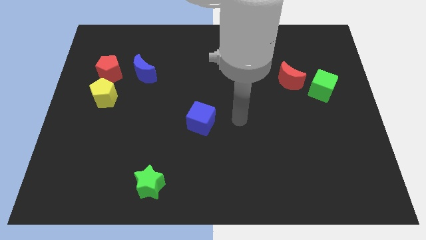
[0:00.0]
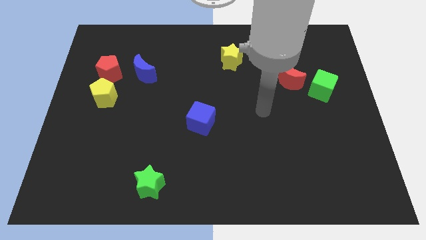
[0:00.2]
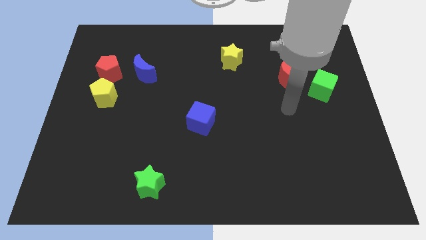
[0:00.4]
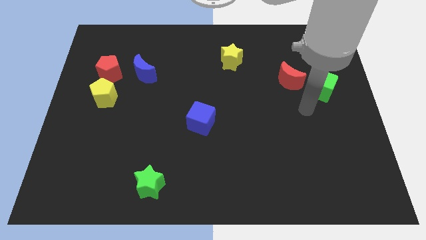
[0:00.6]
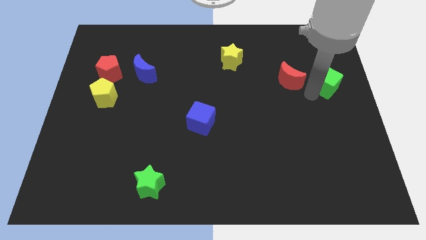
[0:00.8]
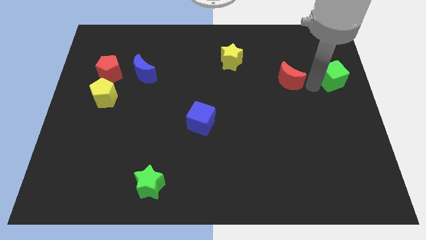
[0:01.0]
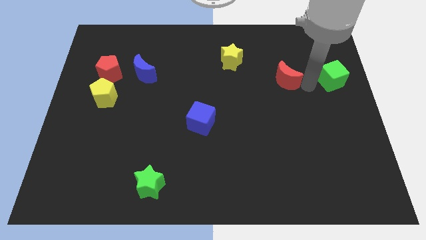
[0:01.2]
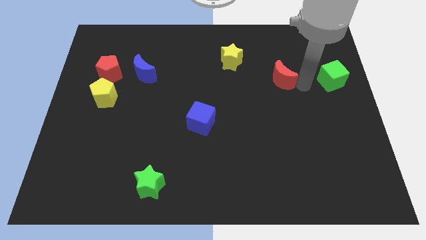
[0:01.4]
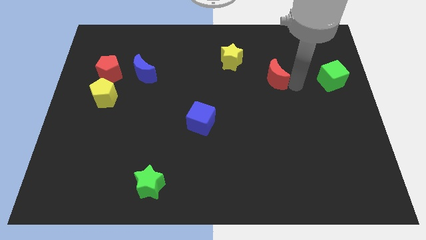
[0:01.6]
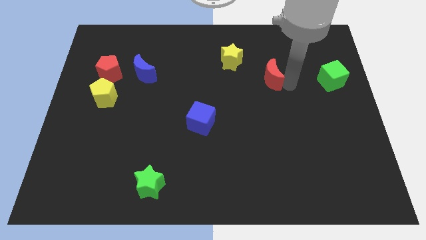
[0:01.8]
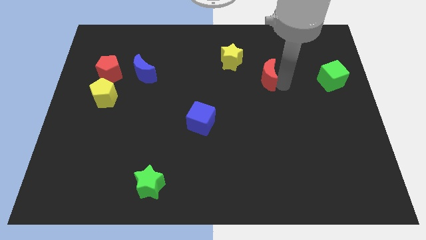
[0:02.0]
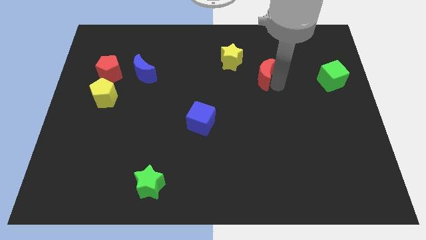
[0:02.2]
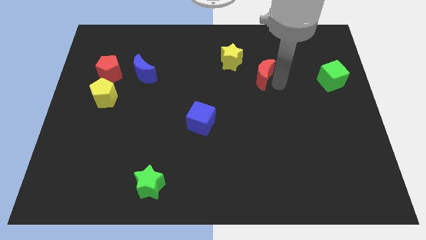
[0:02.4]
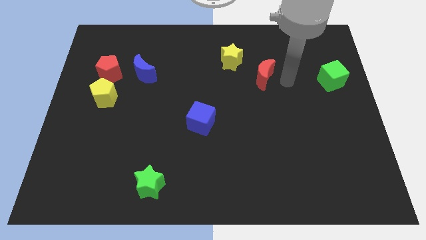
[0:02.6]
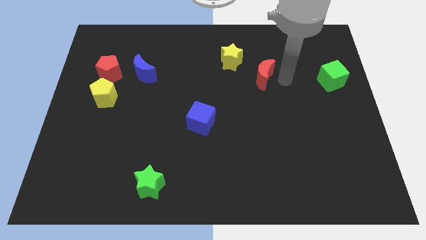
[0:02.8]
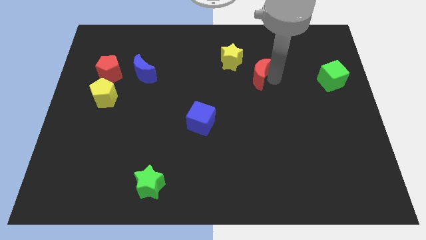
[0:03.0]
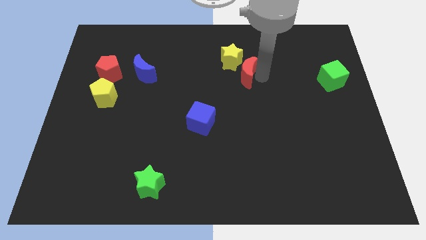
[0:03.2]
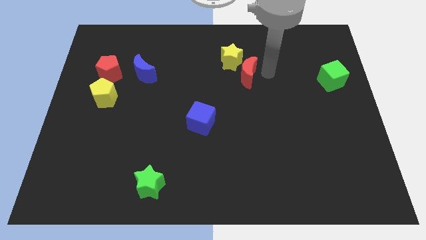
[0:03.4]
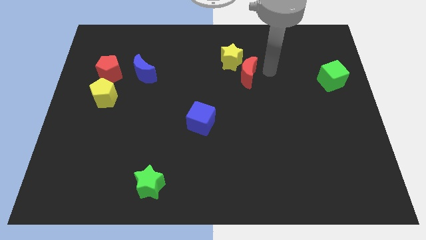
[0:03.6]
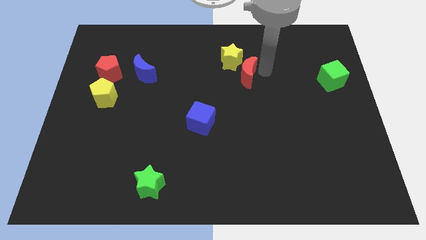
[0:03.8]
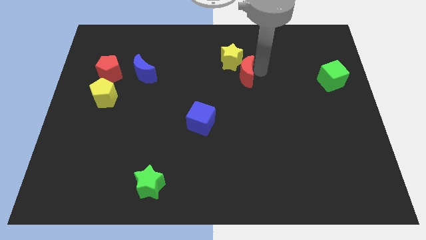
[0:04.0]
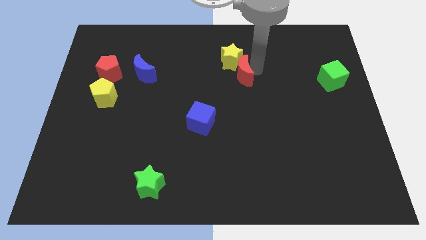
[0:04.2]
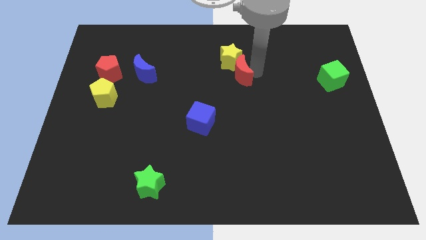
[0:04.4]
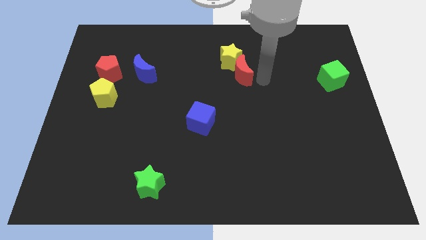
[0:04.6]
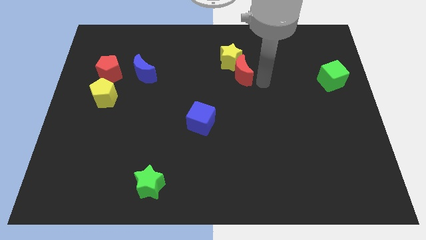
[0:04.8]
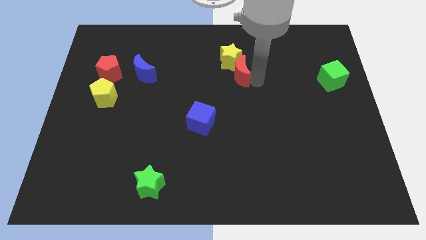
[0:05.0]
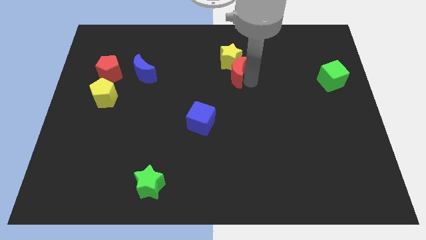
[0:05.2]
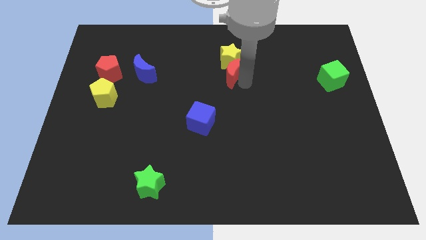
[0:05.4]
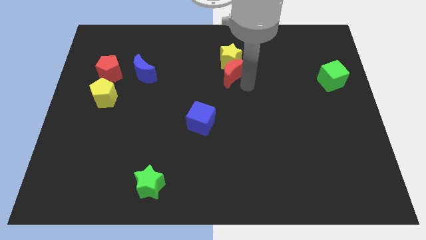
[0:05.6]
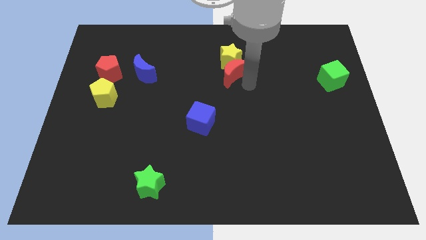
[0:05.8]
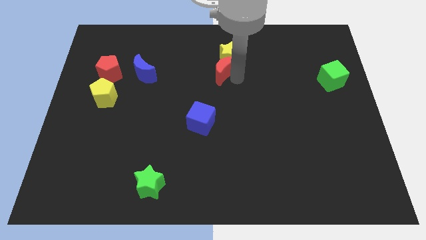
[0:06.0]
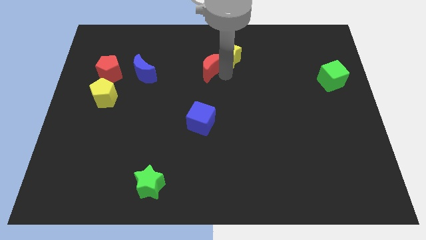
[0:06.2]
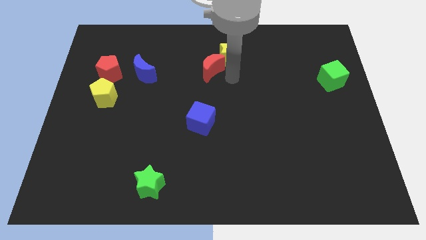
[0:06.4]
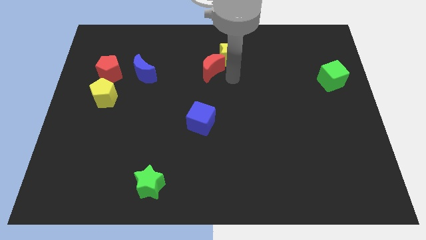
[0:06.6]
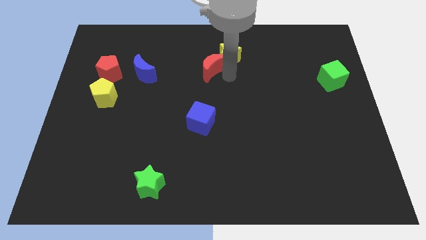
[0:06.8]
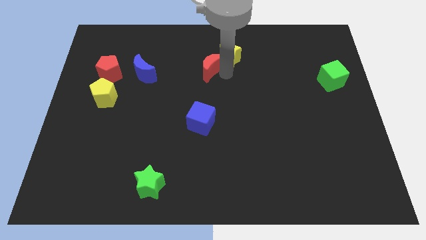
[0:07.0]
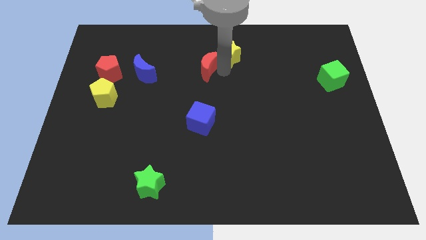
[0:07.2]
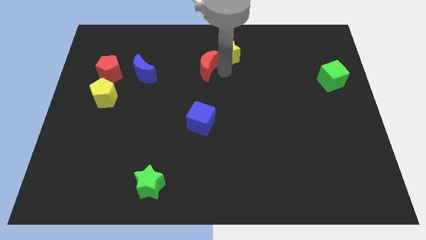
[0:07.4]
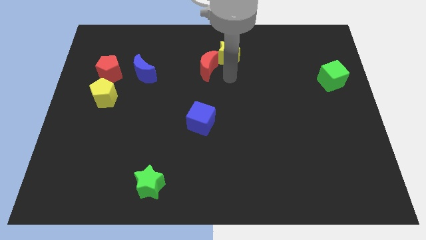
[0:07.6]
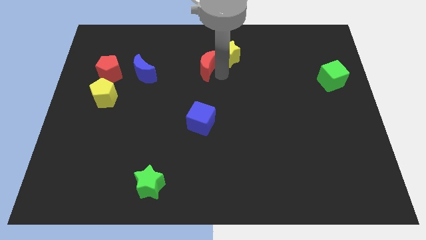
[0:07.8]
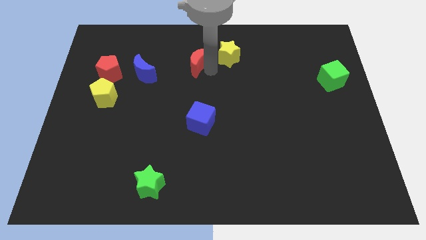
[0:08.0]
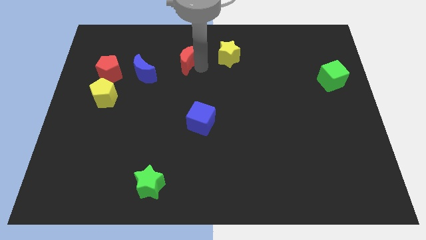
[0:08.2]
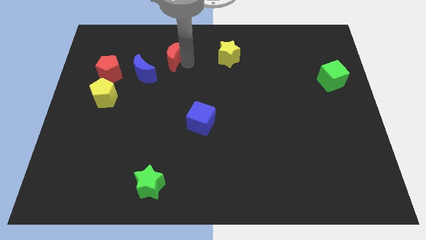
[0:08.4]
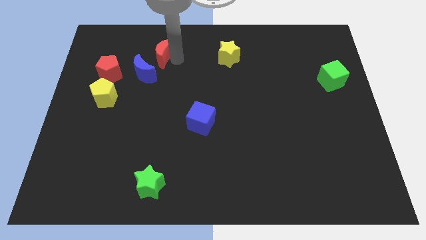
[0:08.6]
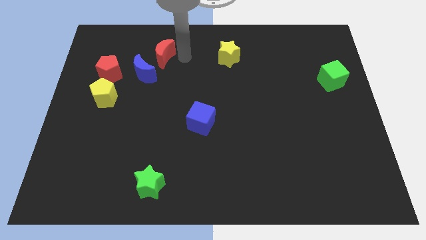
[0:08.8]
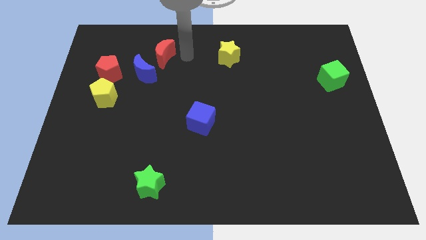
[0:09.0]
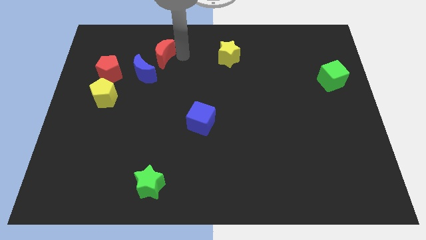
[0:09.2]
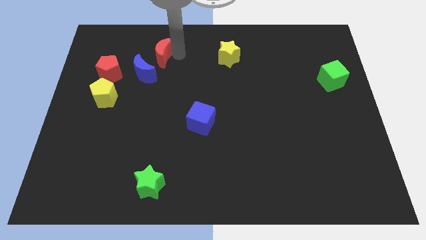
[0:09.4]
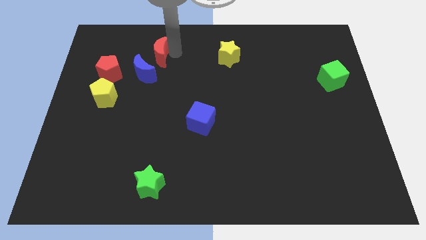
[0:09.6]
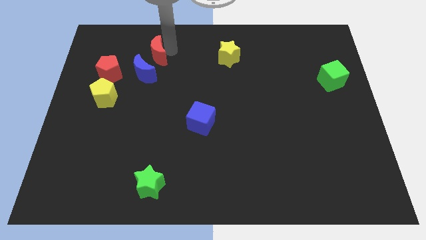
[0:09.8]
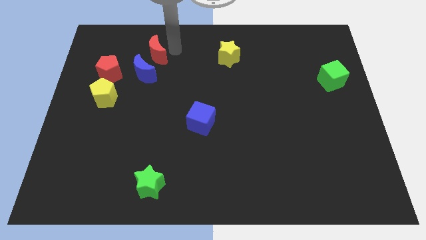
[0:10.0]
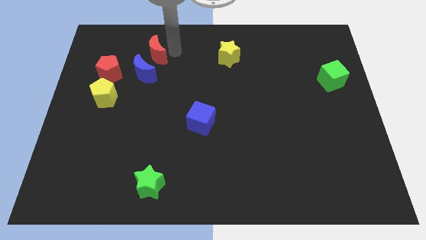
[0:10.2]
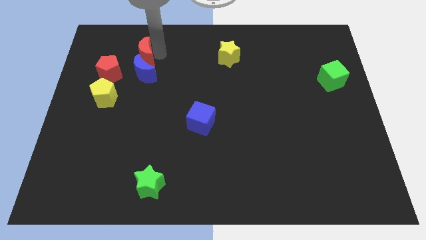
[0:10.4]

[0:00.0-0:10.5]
move the red moon to the top left side of the blue moon

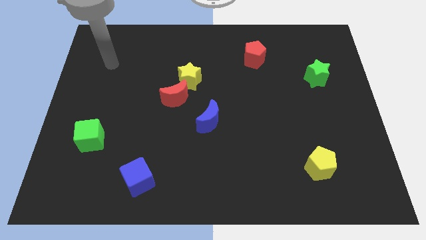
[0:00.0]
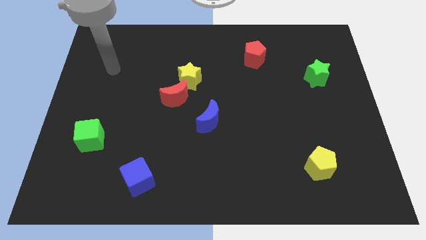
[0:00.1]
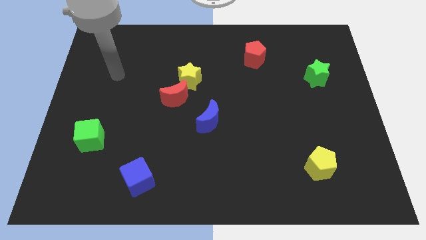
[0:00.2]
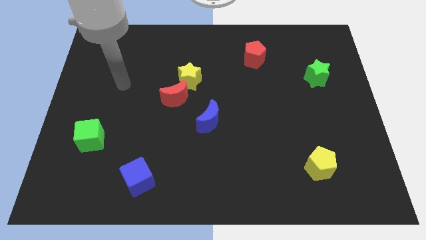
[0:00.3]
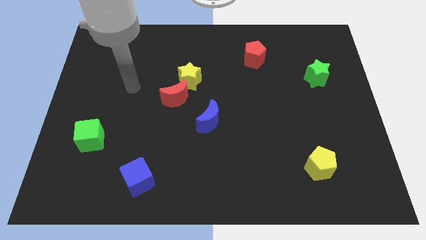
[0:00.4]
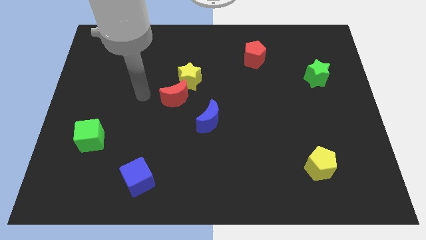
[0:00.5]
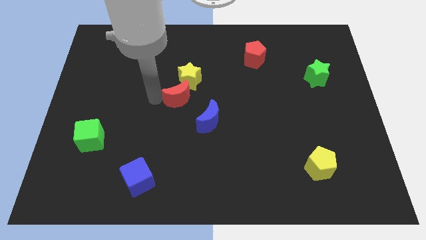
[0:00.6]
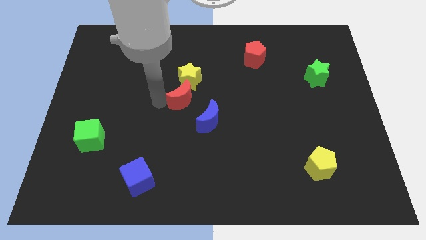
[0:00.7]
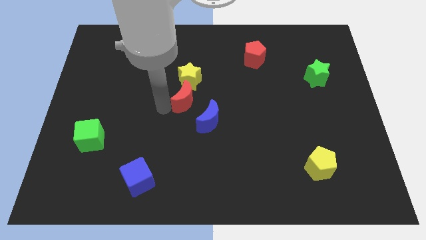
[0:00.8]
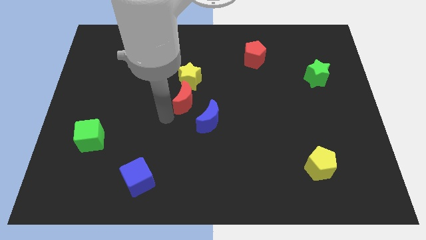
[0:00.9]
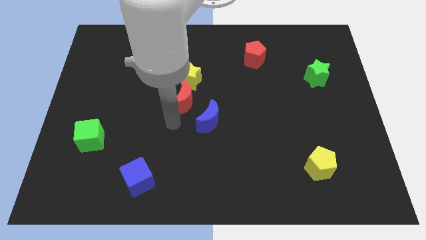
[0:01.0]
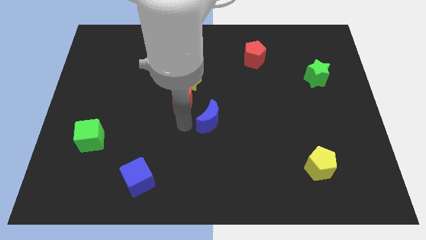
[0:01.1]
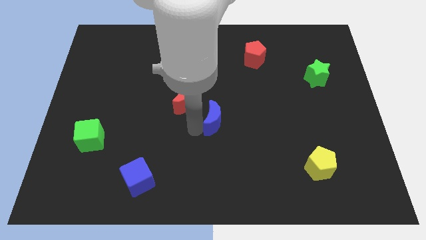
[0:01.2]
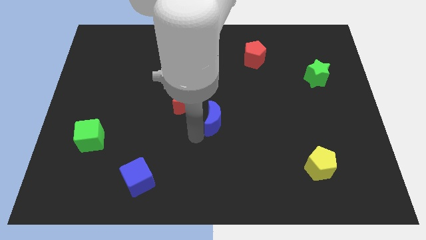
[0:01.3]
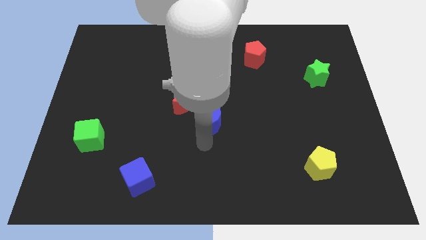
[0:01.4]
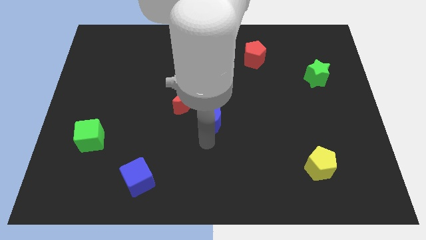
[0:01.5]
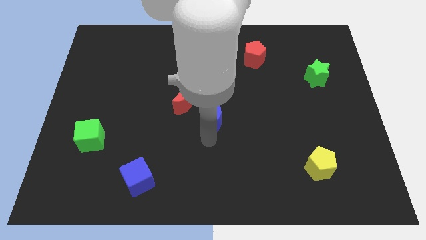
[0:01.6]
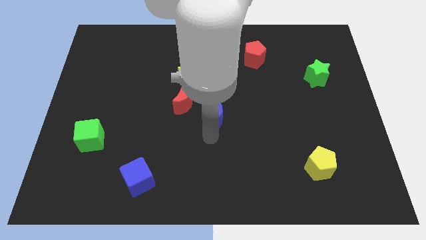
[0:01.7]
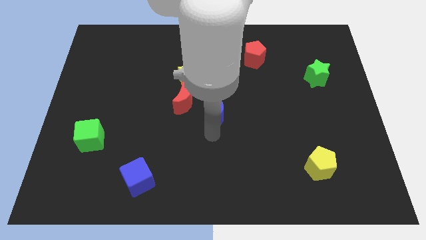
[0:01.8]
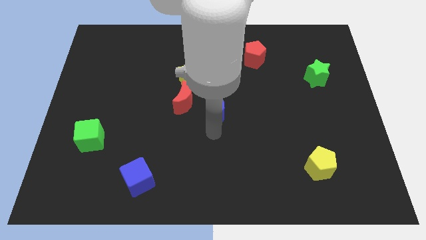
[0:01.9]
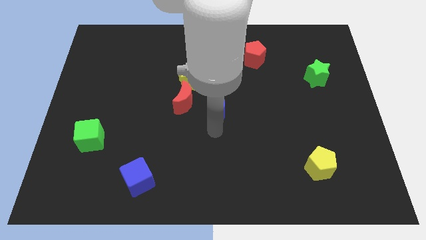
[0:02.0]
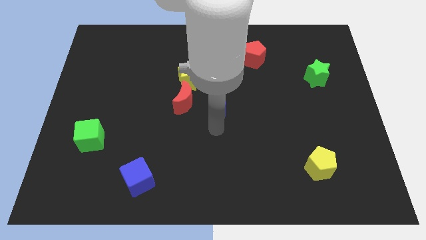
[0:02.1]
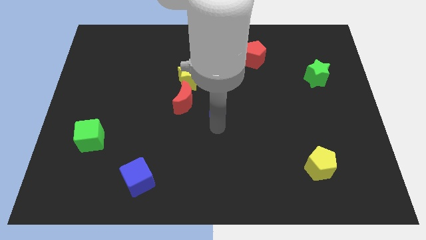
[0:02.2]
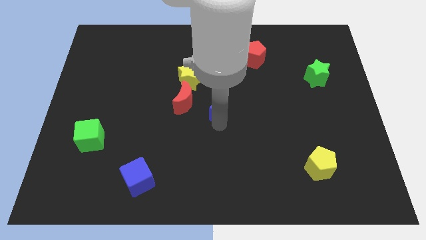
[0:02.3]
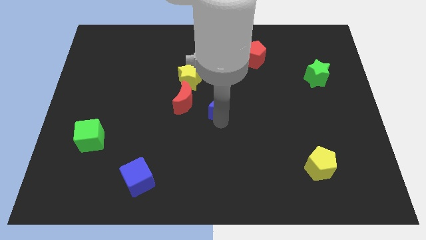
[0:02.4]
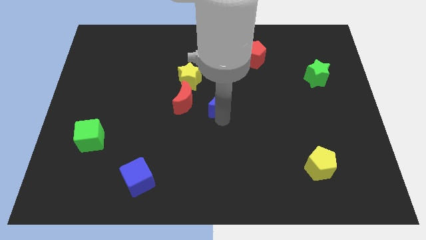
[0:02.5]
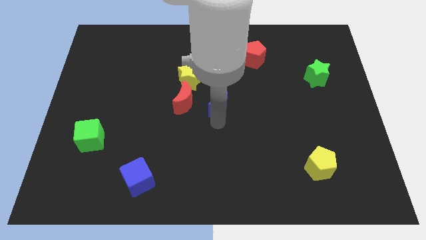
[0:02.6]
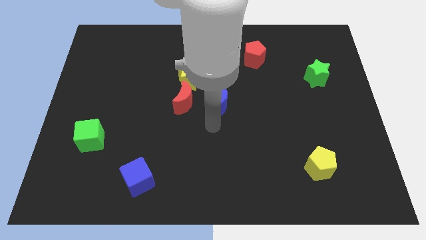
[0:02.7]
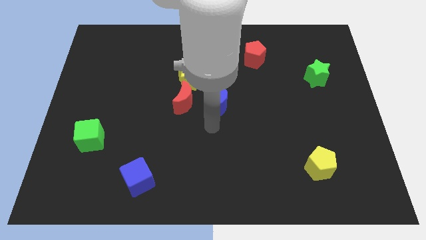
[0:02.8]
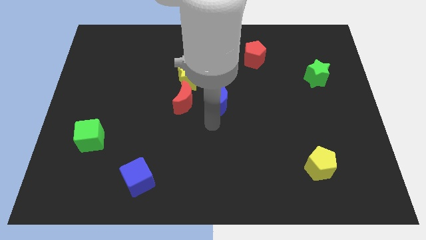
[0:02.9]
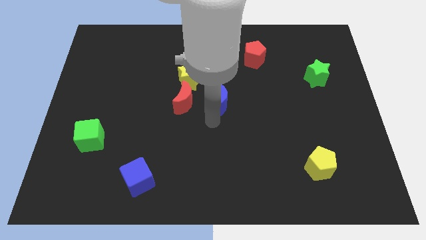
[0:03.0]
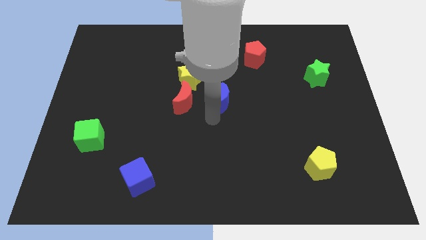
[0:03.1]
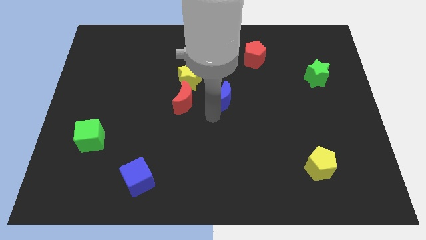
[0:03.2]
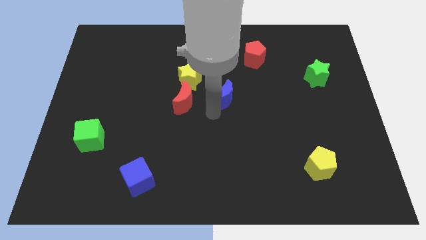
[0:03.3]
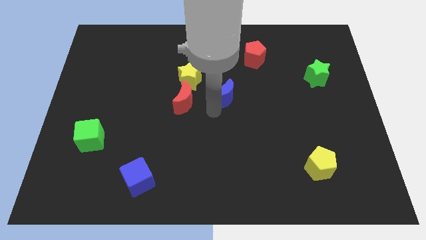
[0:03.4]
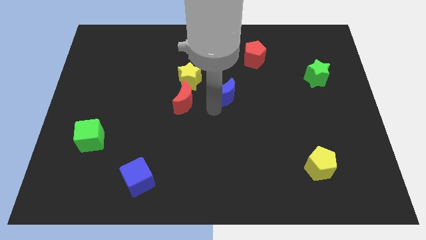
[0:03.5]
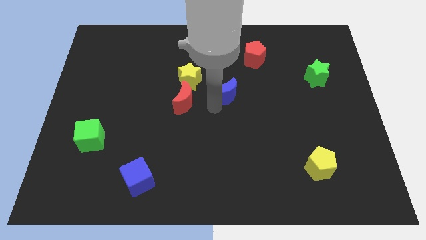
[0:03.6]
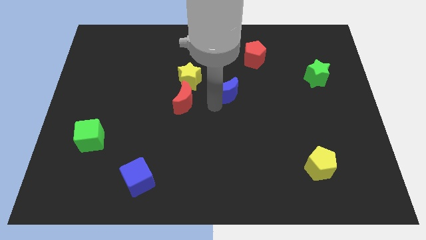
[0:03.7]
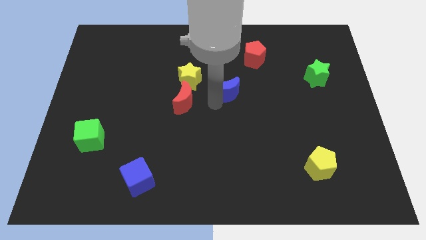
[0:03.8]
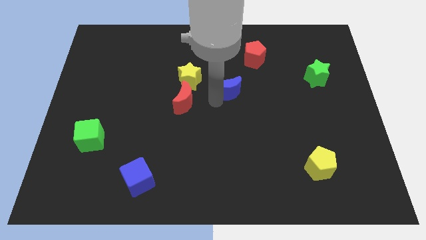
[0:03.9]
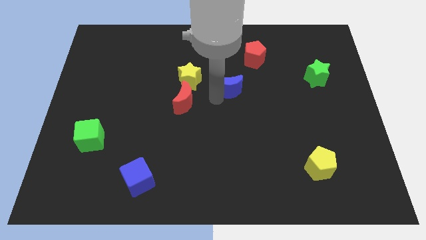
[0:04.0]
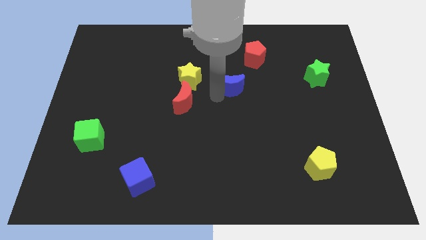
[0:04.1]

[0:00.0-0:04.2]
push the blue moon diagonally down and to the left of the red pentagon
